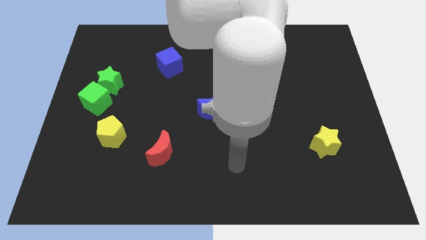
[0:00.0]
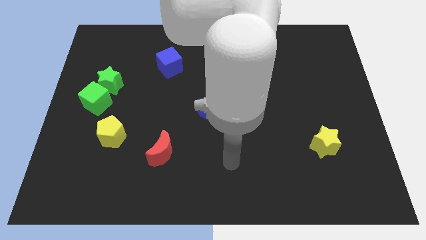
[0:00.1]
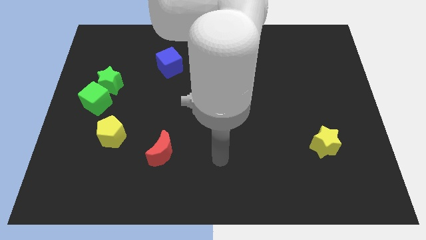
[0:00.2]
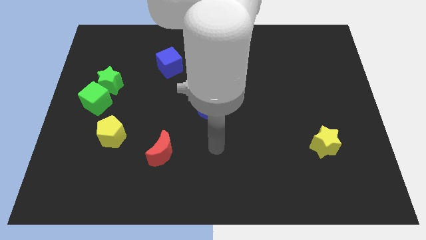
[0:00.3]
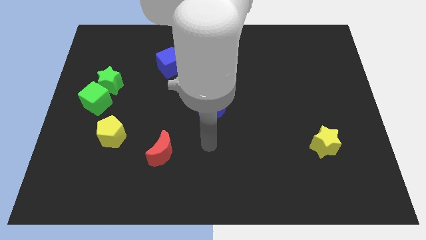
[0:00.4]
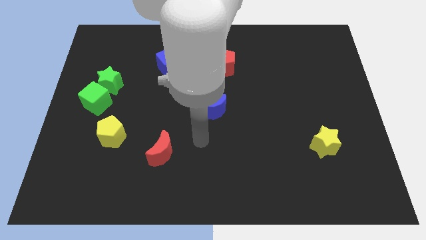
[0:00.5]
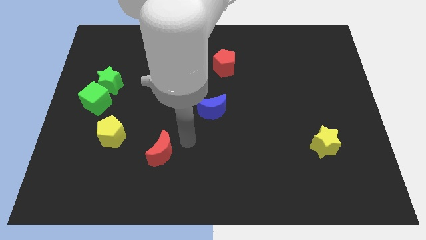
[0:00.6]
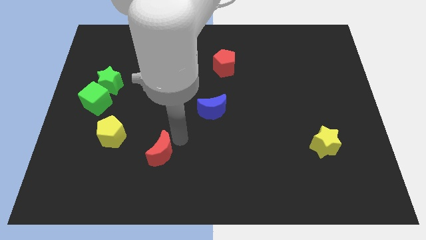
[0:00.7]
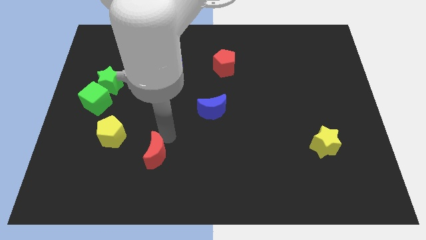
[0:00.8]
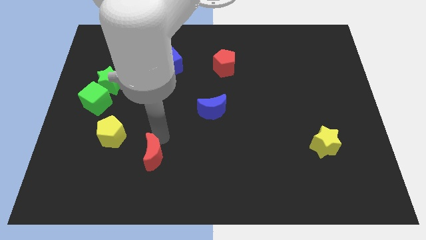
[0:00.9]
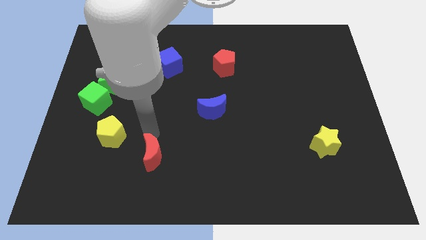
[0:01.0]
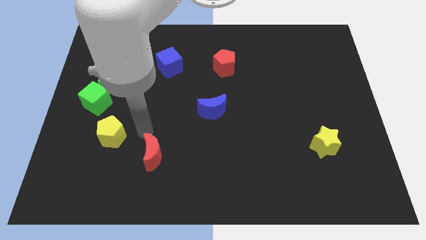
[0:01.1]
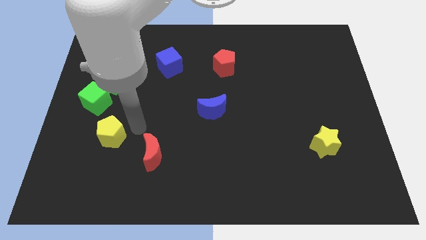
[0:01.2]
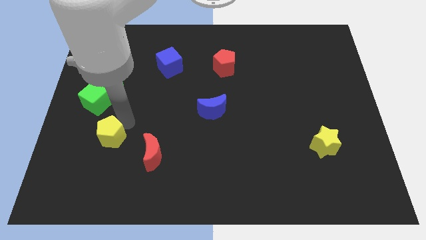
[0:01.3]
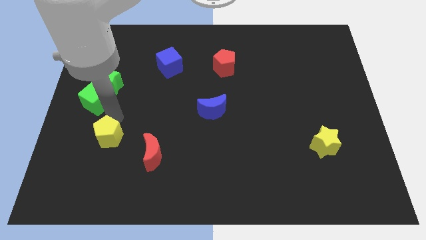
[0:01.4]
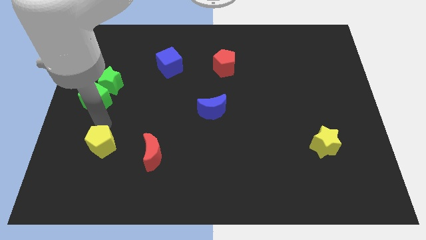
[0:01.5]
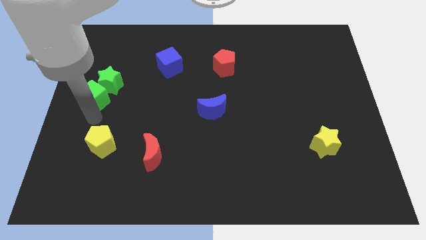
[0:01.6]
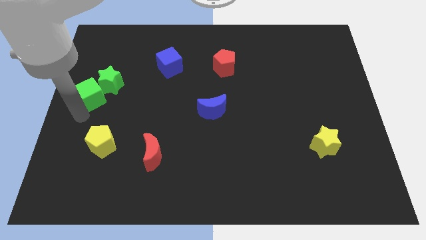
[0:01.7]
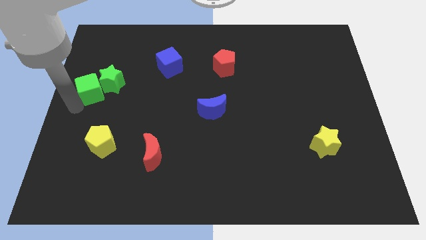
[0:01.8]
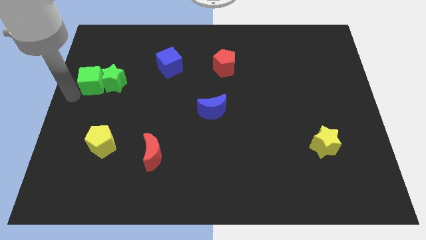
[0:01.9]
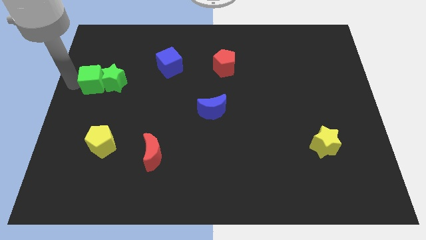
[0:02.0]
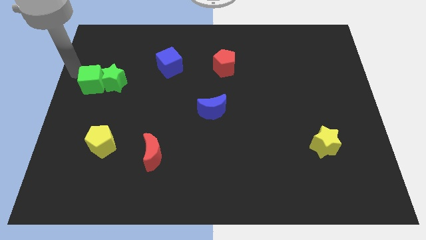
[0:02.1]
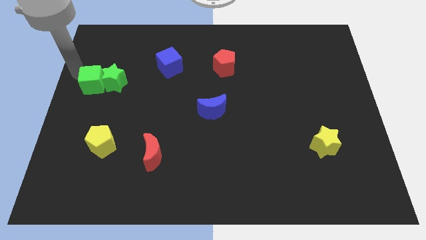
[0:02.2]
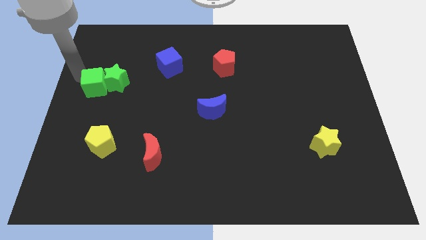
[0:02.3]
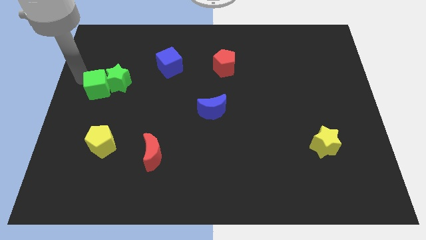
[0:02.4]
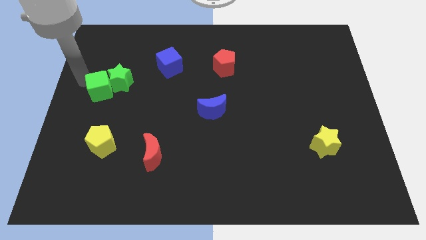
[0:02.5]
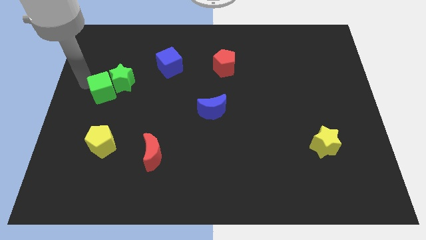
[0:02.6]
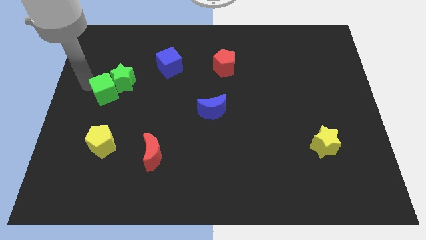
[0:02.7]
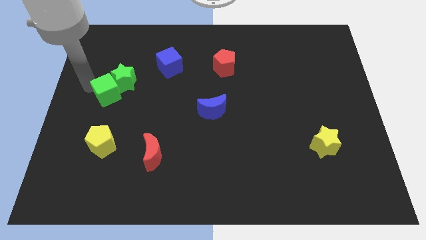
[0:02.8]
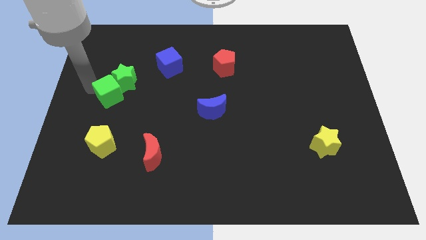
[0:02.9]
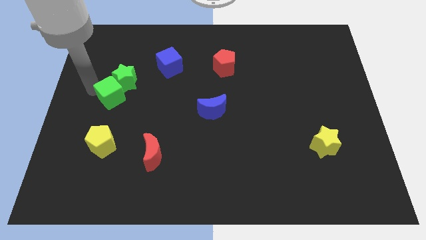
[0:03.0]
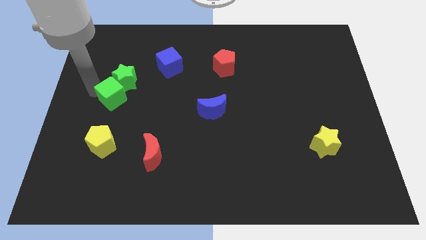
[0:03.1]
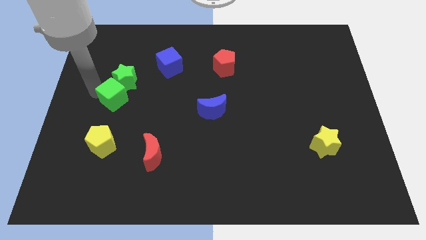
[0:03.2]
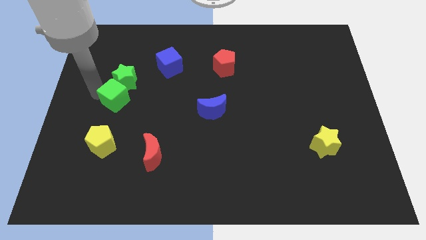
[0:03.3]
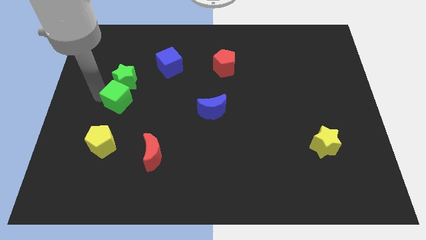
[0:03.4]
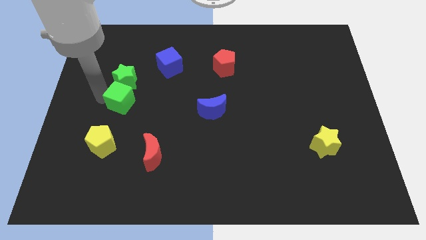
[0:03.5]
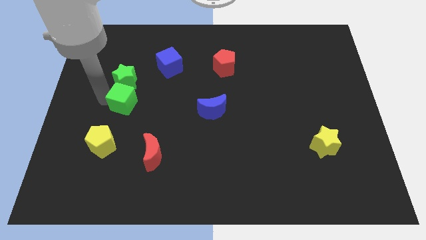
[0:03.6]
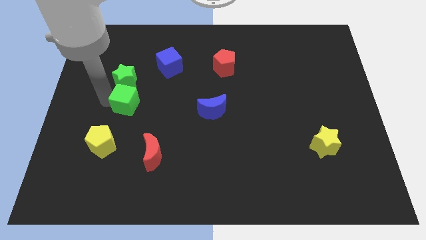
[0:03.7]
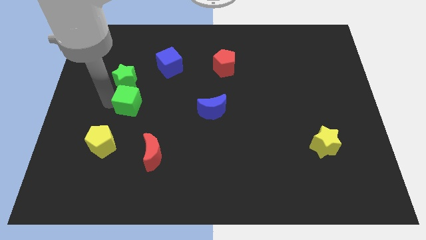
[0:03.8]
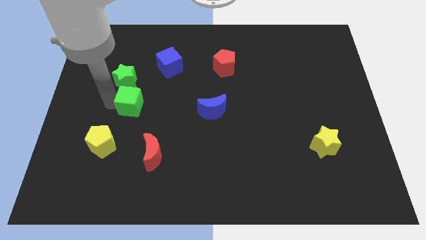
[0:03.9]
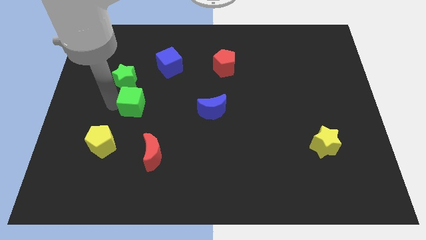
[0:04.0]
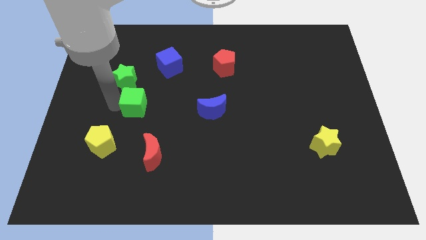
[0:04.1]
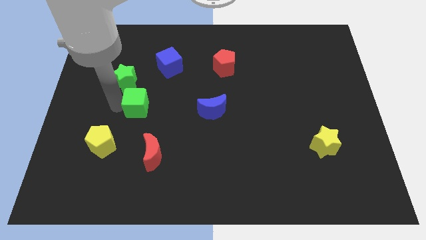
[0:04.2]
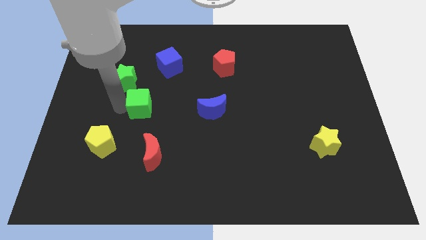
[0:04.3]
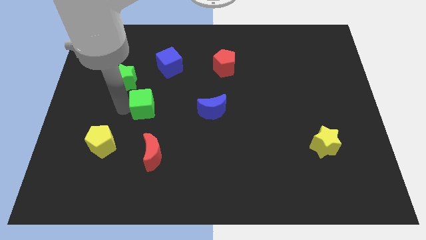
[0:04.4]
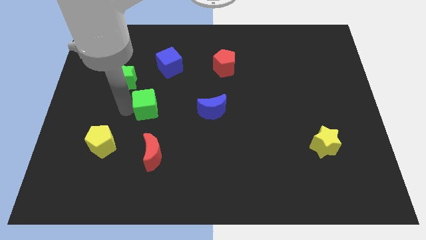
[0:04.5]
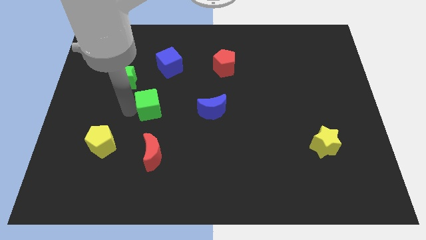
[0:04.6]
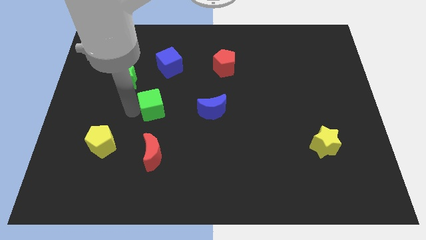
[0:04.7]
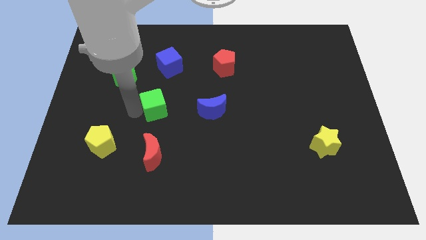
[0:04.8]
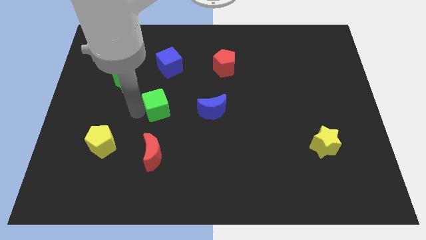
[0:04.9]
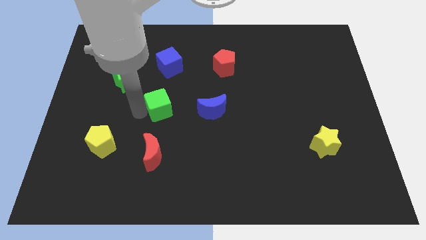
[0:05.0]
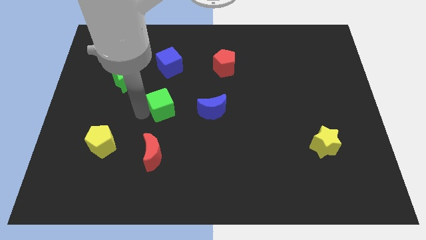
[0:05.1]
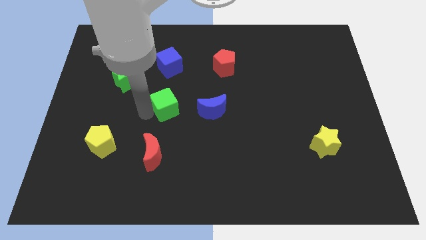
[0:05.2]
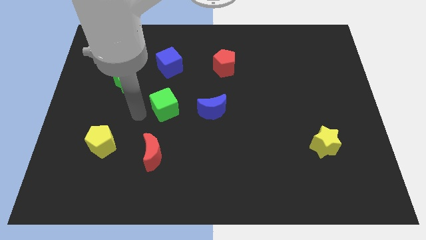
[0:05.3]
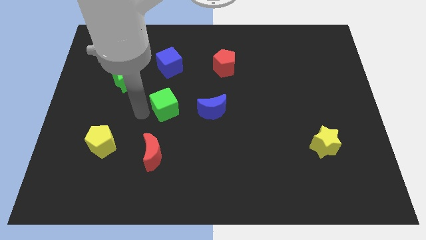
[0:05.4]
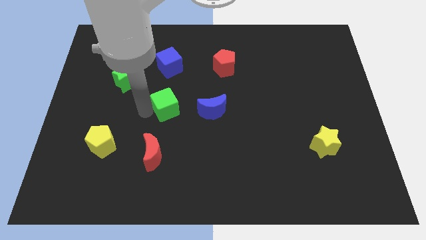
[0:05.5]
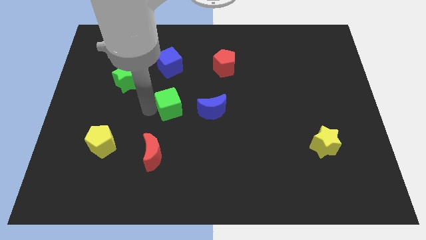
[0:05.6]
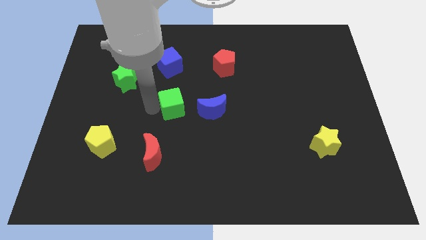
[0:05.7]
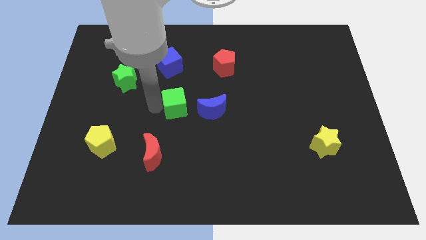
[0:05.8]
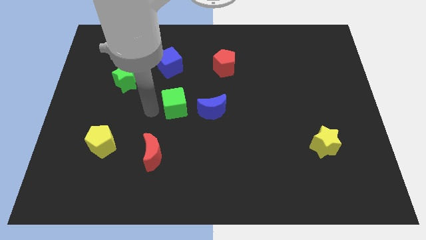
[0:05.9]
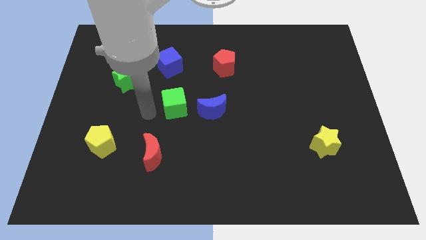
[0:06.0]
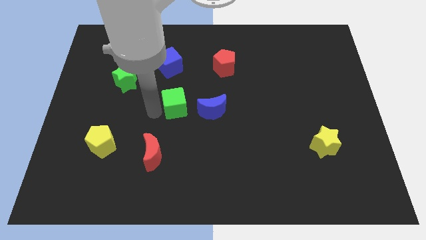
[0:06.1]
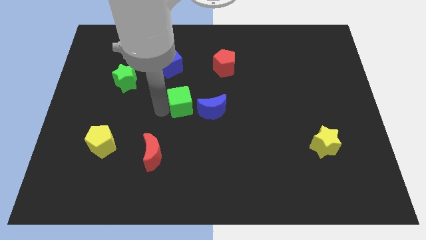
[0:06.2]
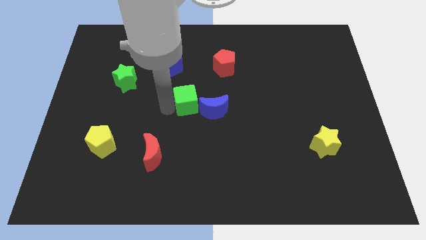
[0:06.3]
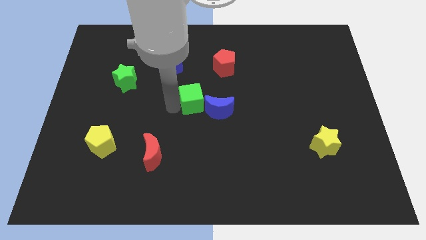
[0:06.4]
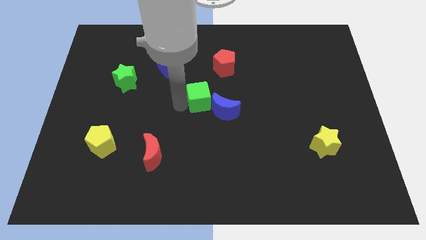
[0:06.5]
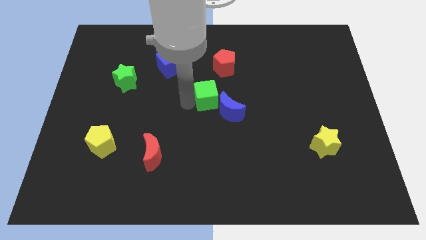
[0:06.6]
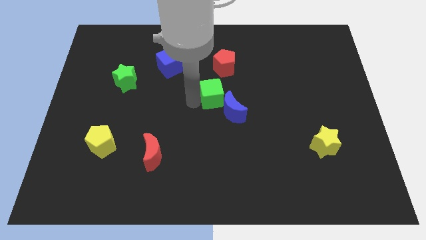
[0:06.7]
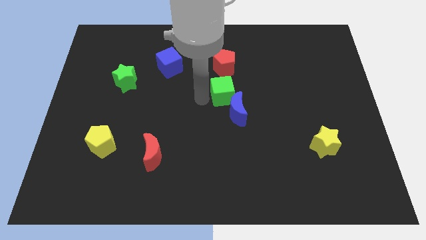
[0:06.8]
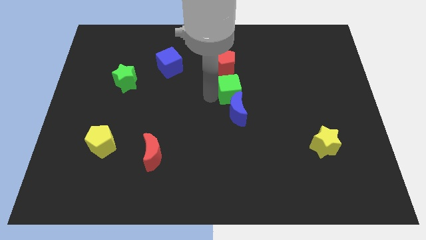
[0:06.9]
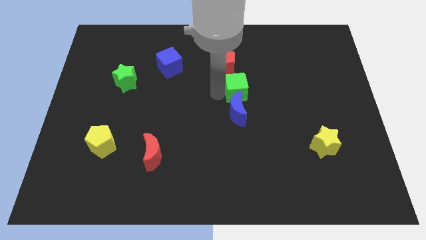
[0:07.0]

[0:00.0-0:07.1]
push the green cube to the top right of the blue moon
